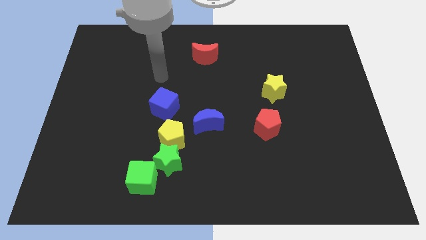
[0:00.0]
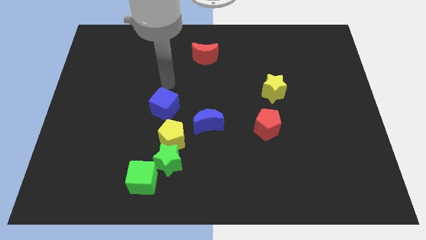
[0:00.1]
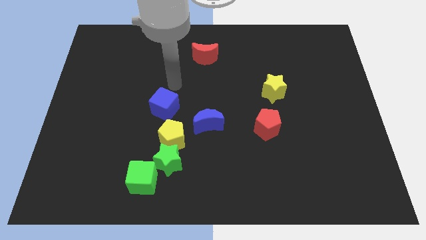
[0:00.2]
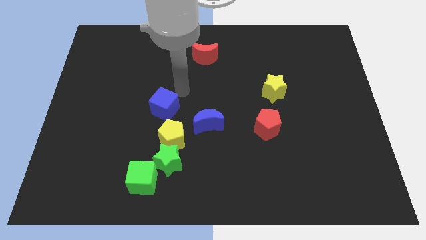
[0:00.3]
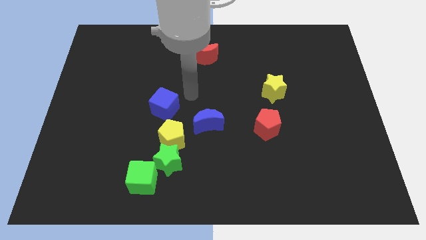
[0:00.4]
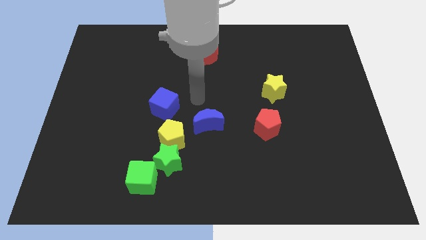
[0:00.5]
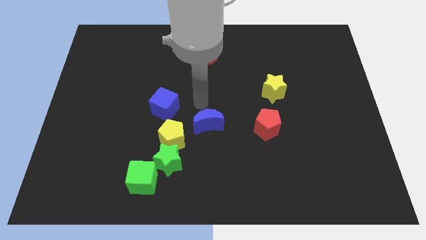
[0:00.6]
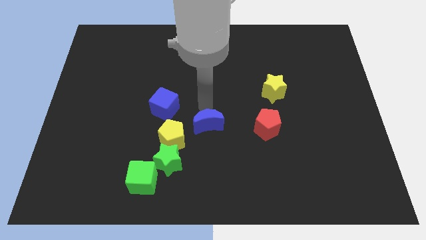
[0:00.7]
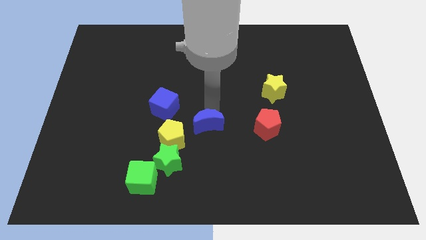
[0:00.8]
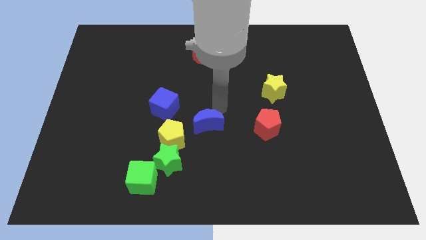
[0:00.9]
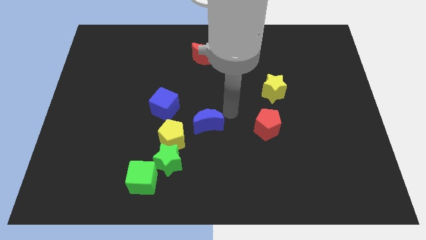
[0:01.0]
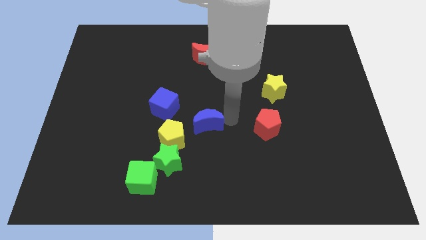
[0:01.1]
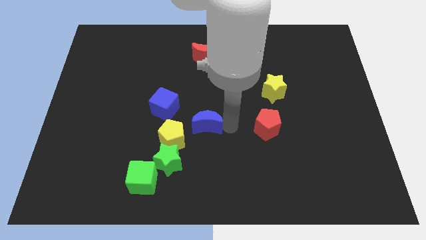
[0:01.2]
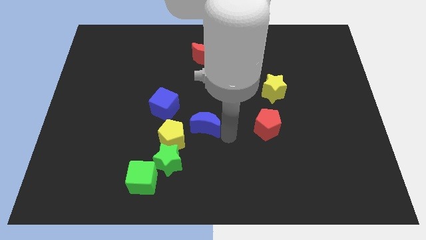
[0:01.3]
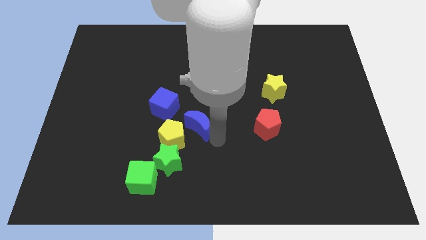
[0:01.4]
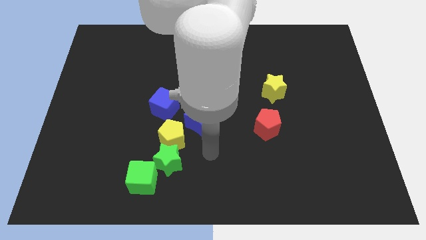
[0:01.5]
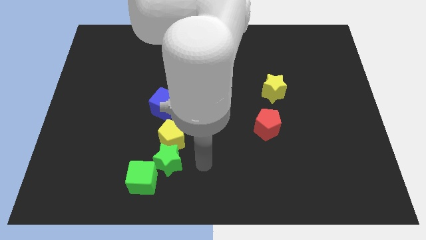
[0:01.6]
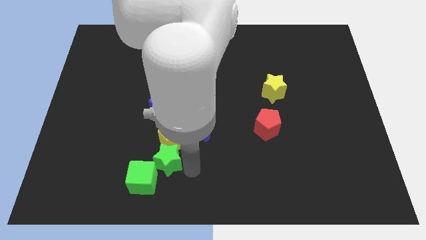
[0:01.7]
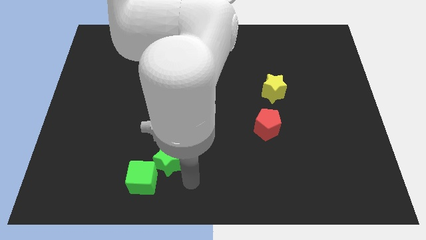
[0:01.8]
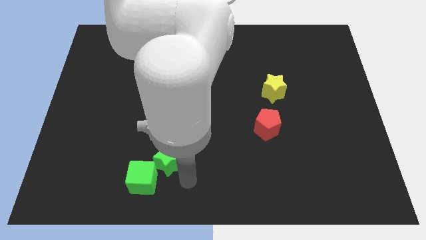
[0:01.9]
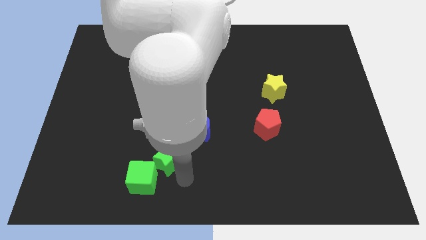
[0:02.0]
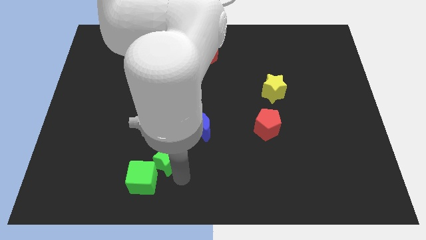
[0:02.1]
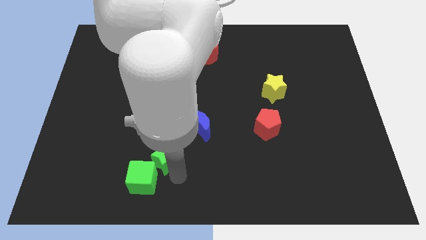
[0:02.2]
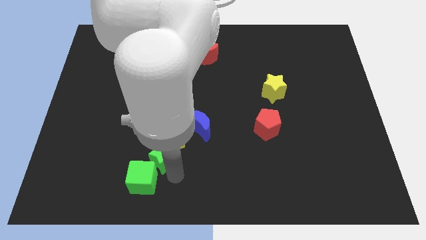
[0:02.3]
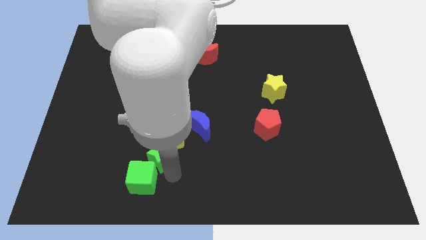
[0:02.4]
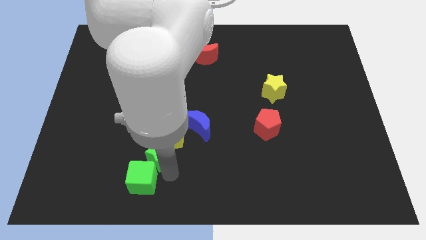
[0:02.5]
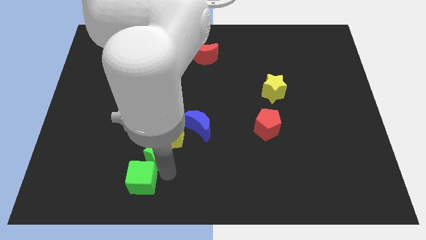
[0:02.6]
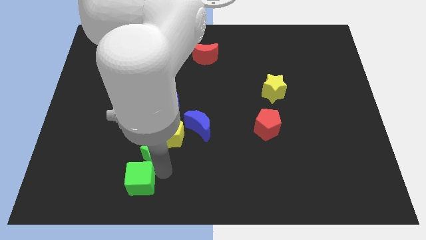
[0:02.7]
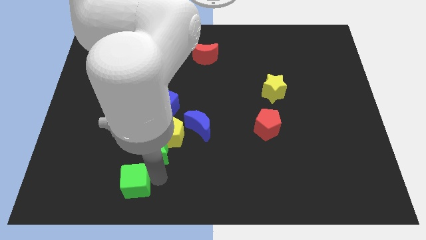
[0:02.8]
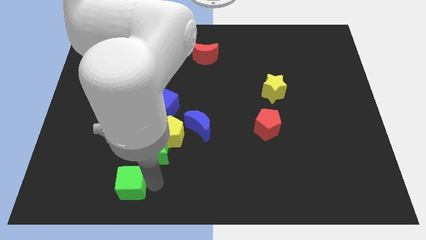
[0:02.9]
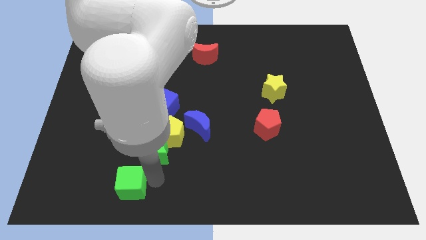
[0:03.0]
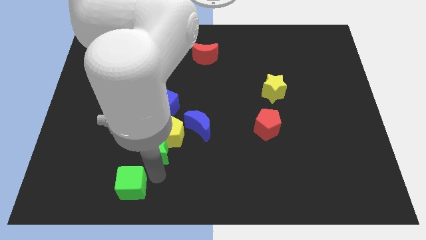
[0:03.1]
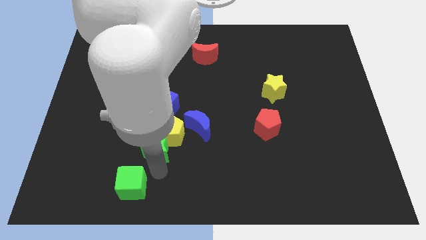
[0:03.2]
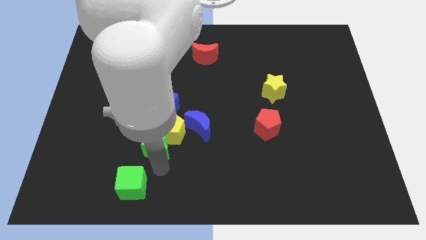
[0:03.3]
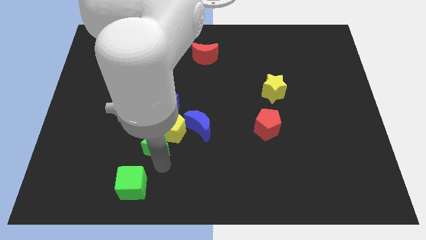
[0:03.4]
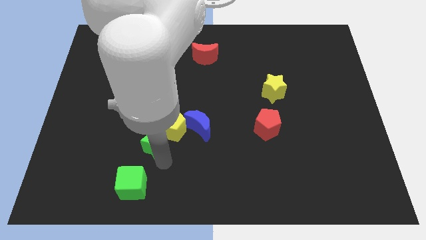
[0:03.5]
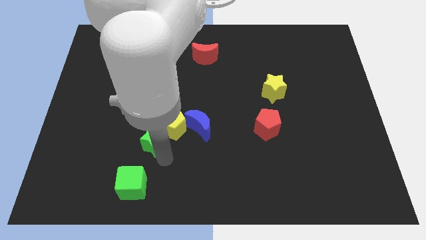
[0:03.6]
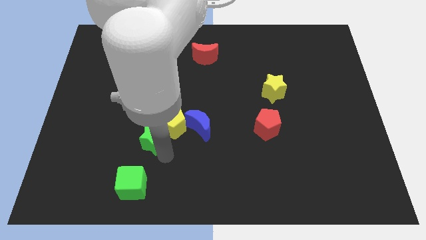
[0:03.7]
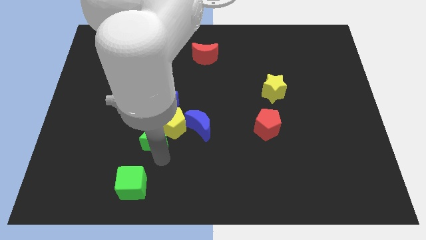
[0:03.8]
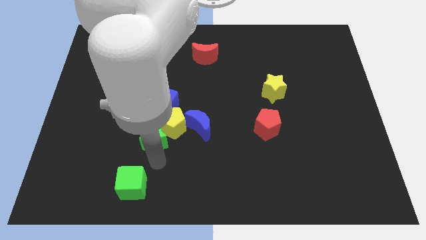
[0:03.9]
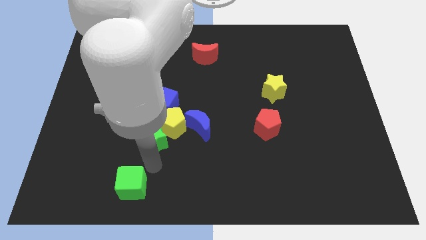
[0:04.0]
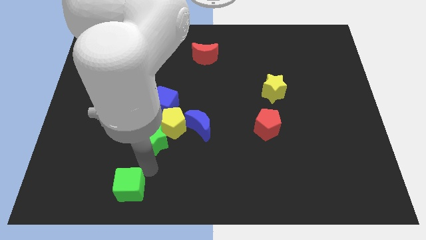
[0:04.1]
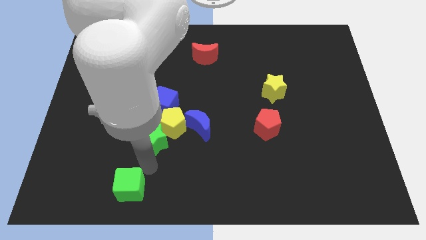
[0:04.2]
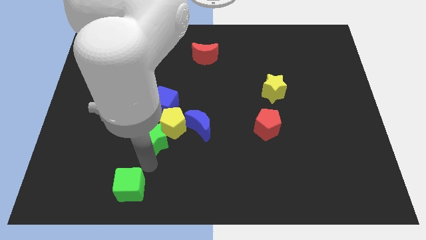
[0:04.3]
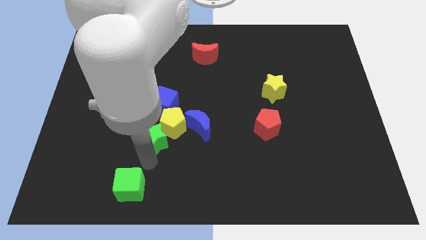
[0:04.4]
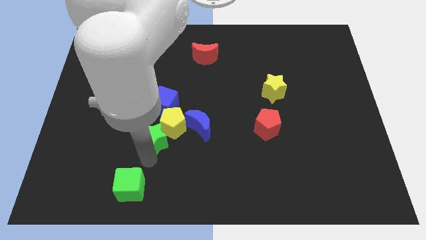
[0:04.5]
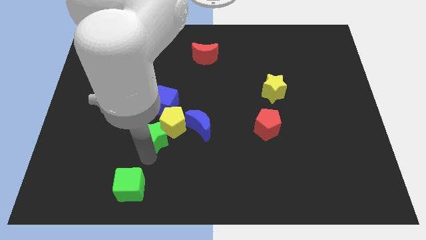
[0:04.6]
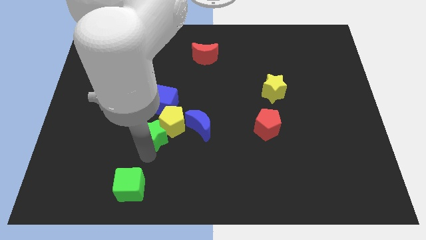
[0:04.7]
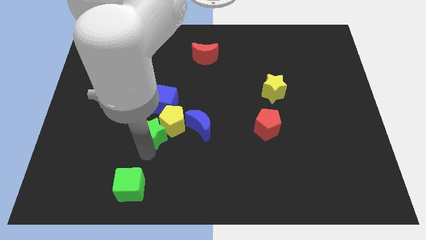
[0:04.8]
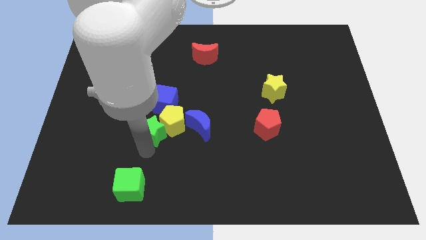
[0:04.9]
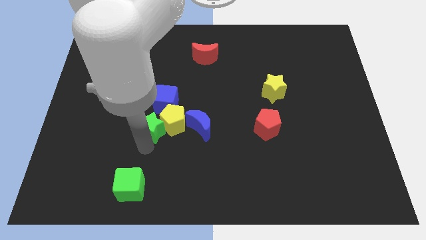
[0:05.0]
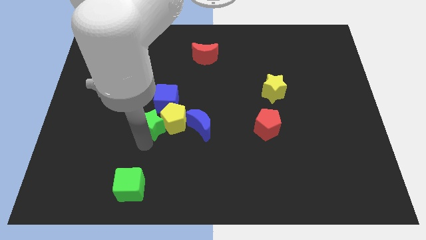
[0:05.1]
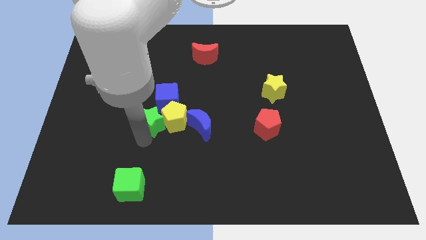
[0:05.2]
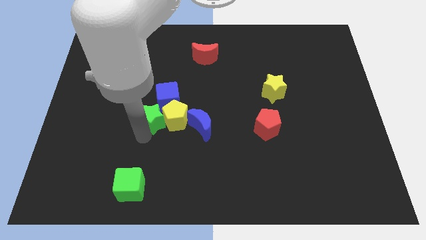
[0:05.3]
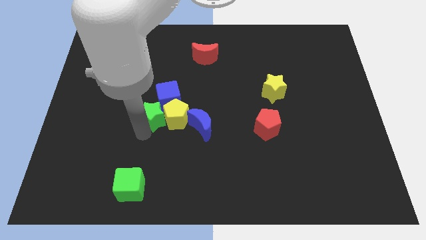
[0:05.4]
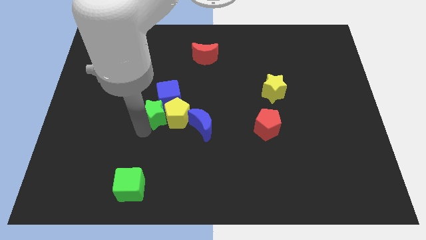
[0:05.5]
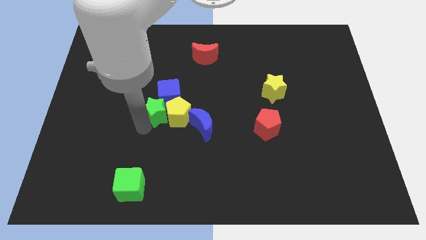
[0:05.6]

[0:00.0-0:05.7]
put the green star to the blue cube
